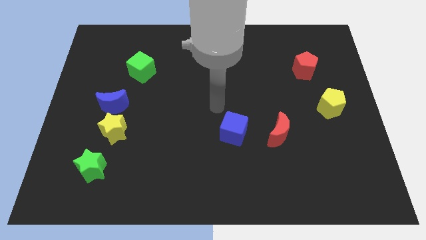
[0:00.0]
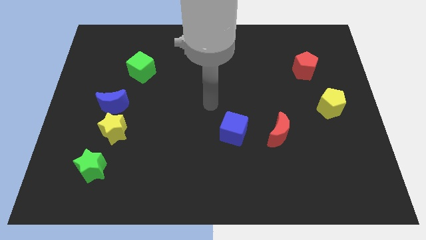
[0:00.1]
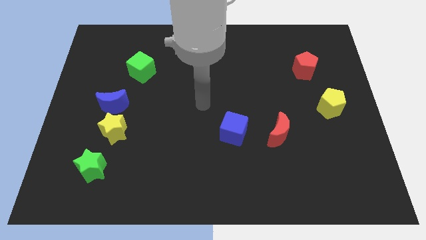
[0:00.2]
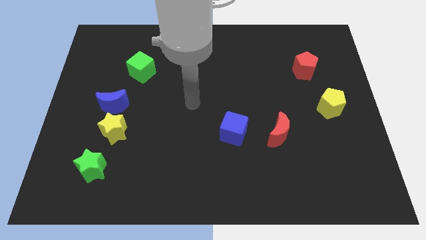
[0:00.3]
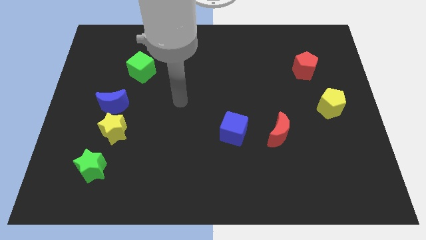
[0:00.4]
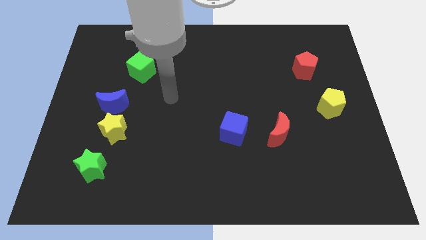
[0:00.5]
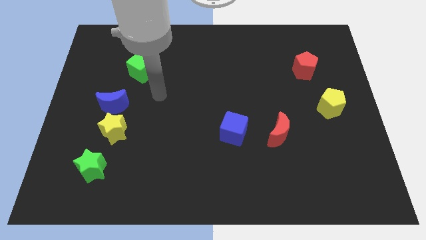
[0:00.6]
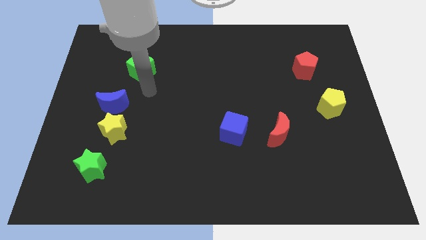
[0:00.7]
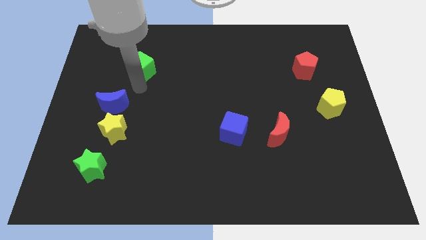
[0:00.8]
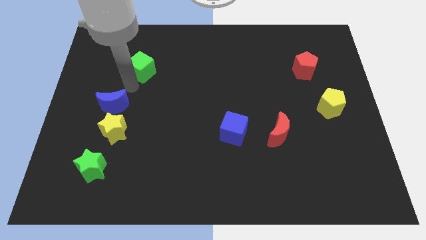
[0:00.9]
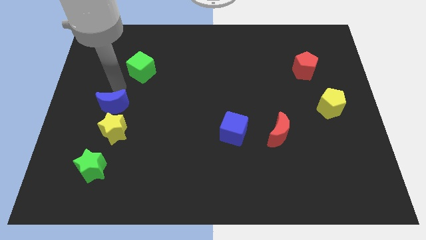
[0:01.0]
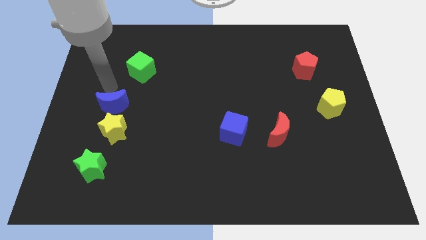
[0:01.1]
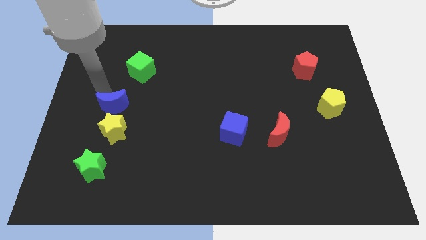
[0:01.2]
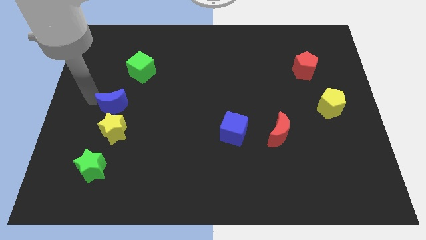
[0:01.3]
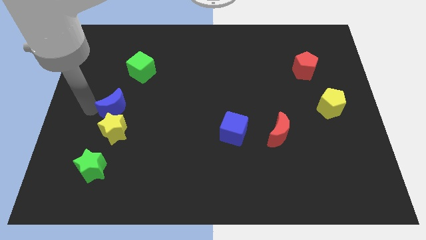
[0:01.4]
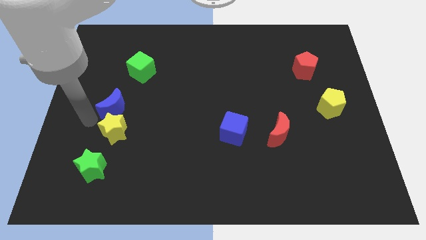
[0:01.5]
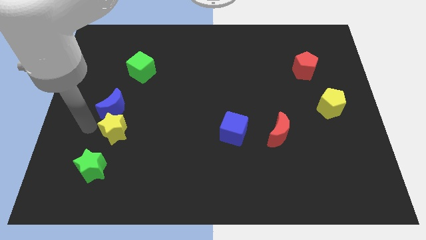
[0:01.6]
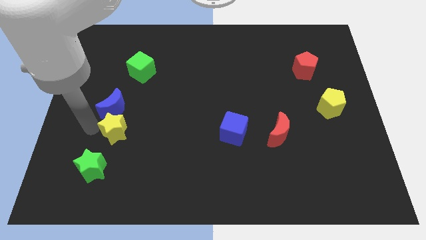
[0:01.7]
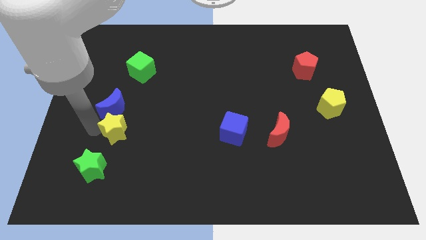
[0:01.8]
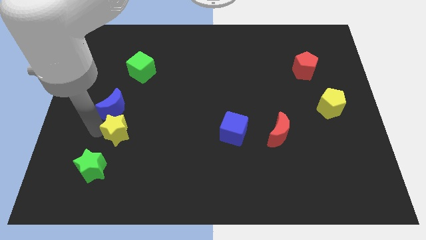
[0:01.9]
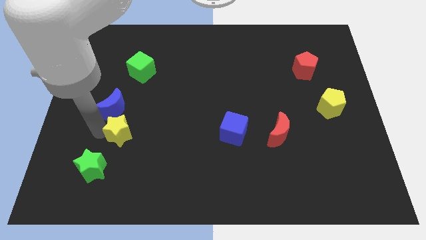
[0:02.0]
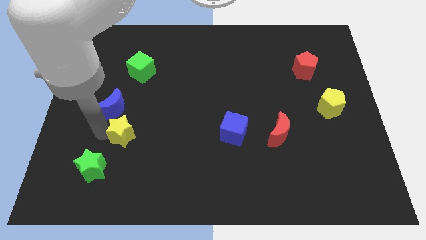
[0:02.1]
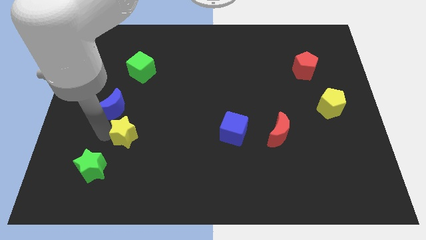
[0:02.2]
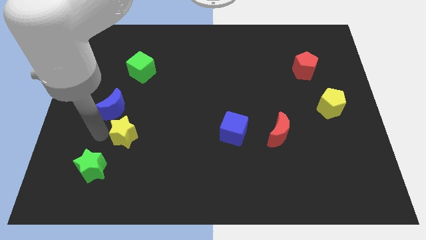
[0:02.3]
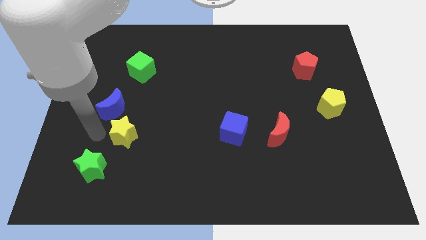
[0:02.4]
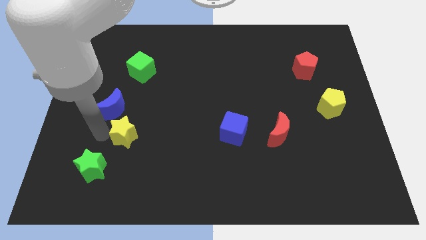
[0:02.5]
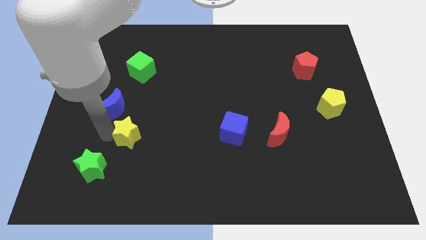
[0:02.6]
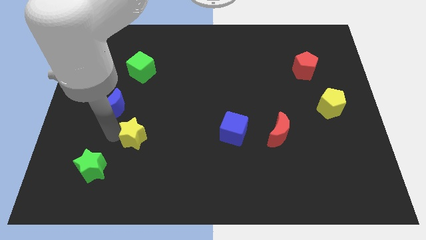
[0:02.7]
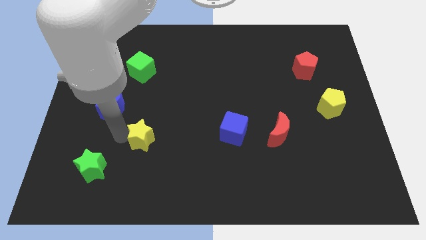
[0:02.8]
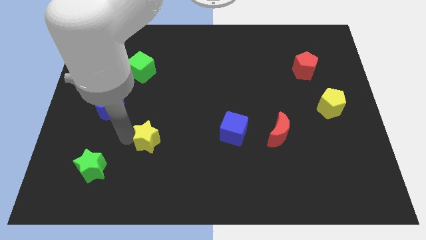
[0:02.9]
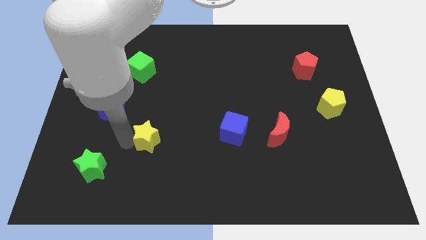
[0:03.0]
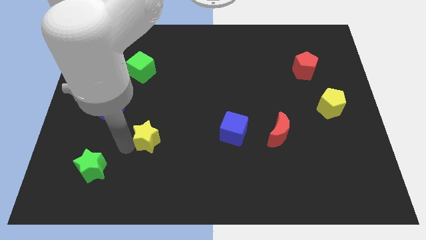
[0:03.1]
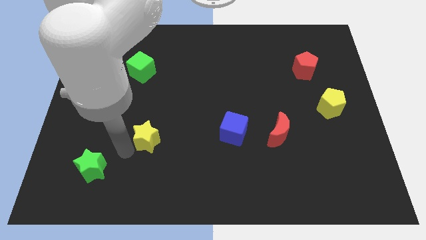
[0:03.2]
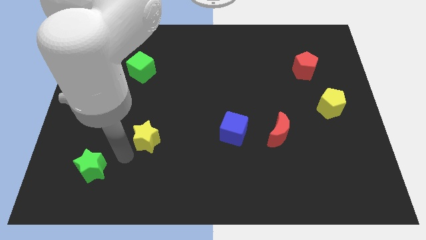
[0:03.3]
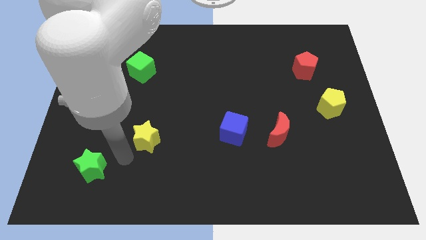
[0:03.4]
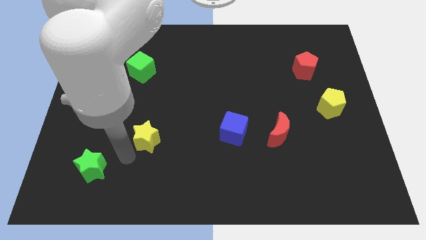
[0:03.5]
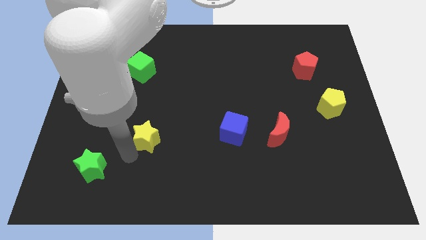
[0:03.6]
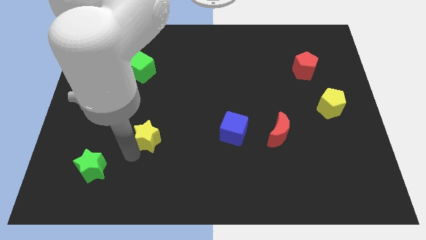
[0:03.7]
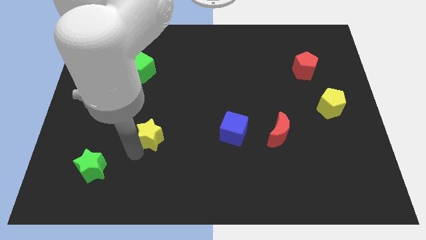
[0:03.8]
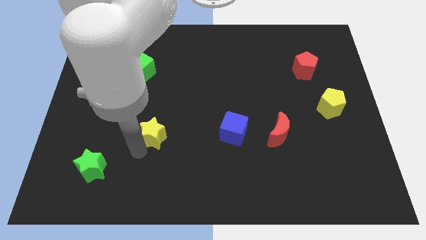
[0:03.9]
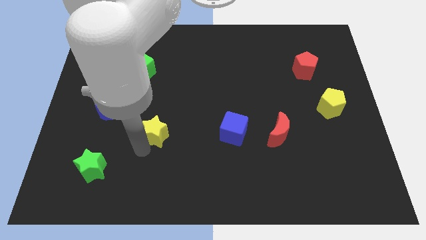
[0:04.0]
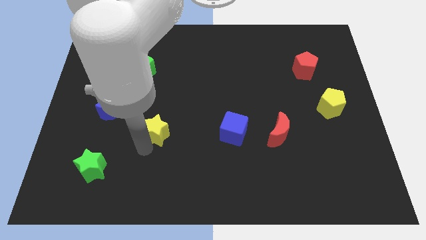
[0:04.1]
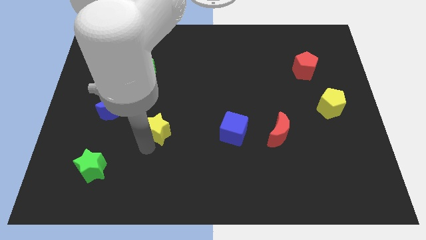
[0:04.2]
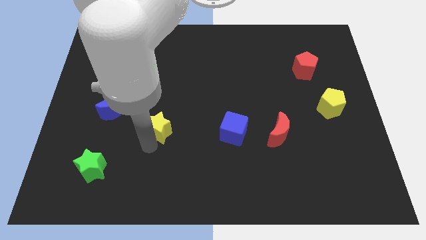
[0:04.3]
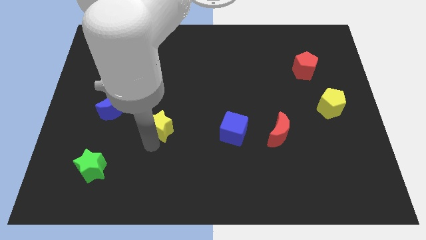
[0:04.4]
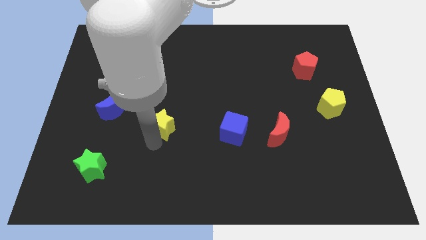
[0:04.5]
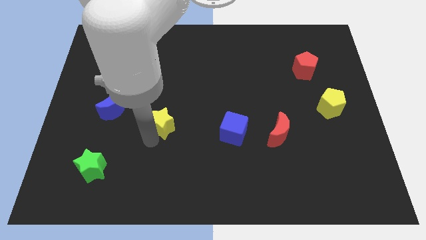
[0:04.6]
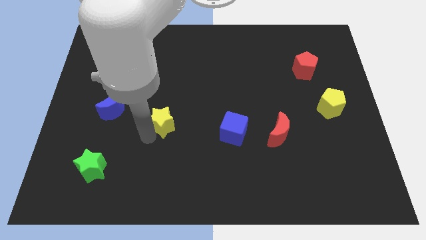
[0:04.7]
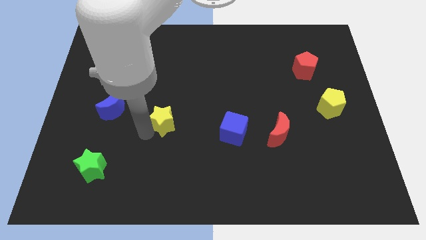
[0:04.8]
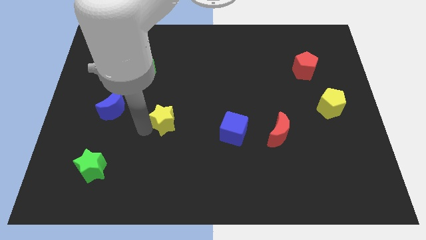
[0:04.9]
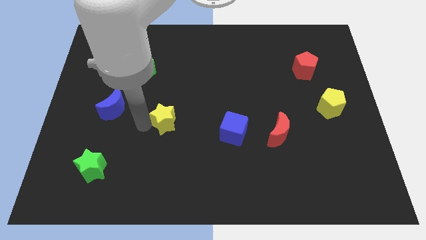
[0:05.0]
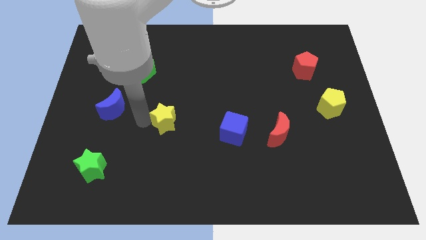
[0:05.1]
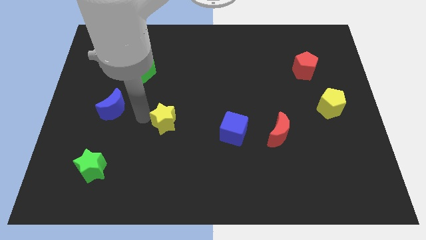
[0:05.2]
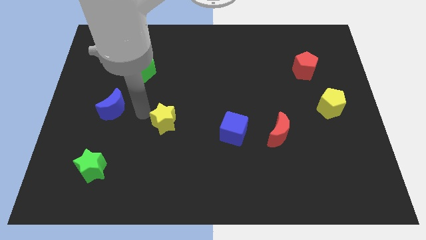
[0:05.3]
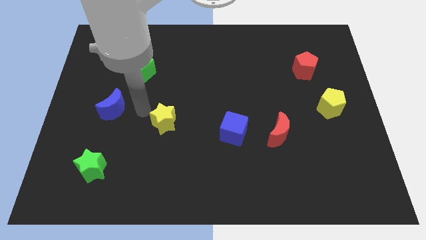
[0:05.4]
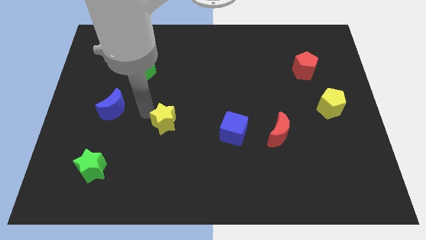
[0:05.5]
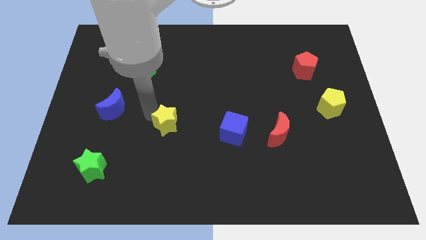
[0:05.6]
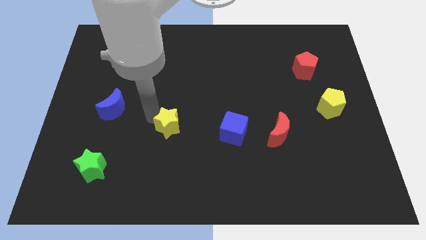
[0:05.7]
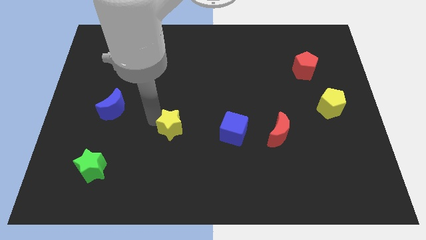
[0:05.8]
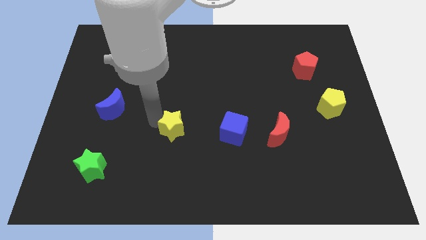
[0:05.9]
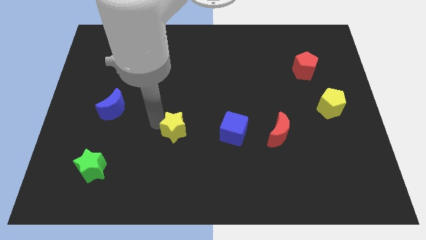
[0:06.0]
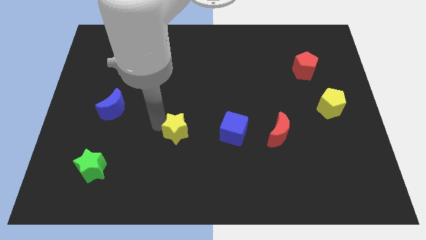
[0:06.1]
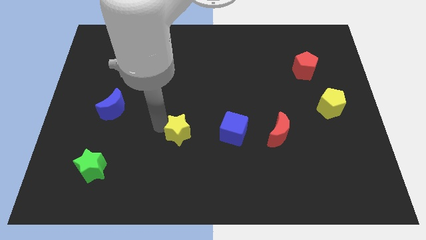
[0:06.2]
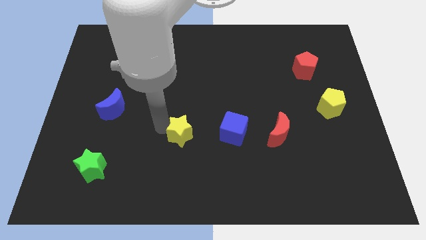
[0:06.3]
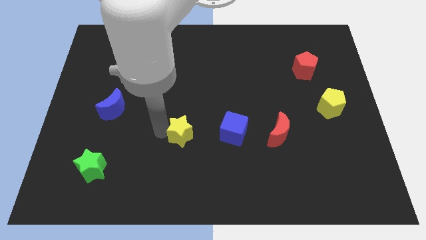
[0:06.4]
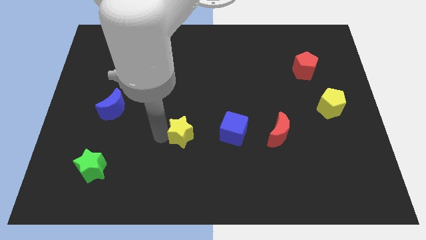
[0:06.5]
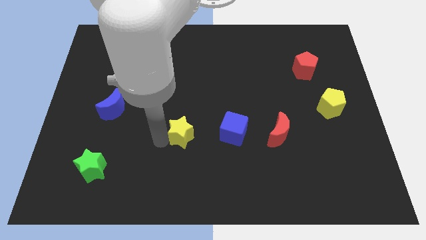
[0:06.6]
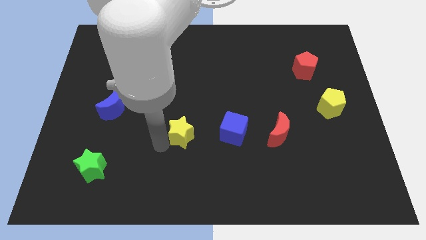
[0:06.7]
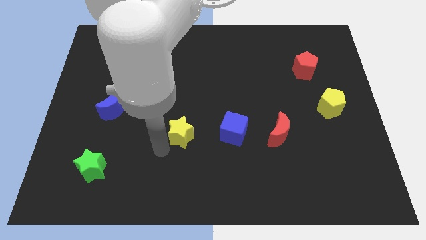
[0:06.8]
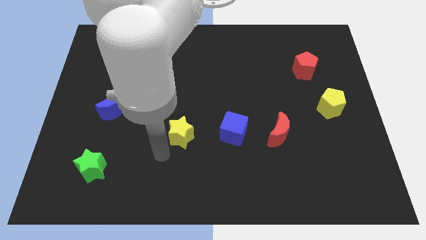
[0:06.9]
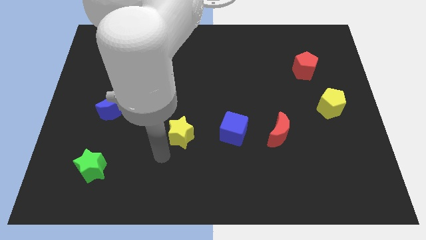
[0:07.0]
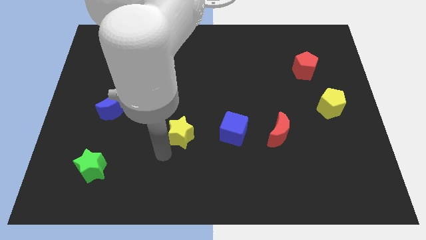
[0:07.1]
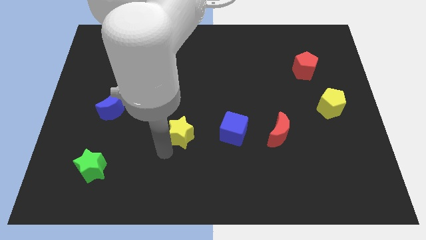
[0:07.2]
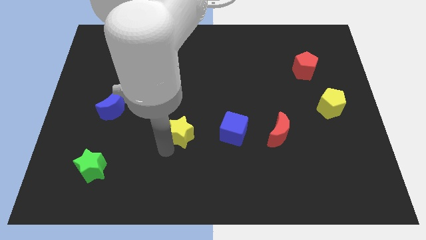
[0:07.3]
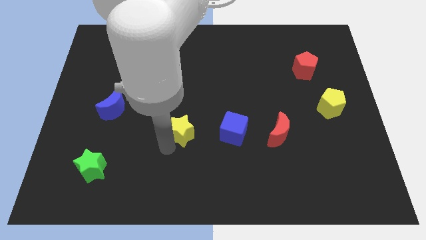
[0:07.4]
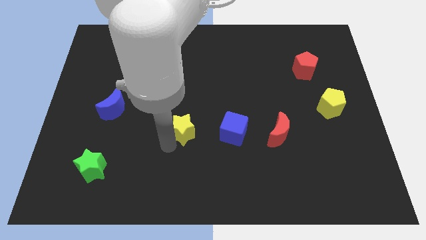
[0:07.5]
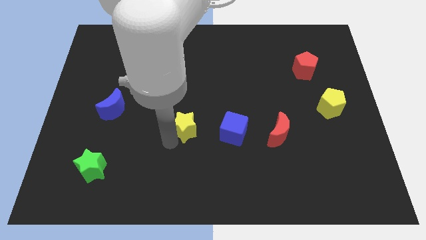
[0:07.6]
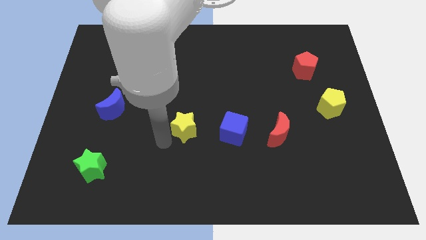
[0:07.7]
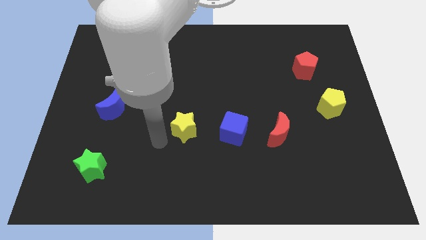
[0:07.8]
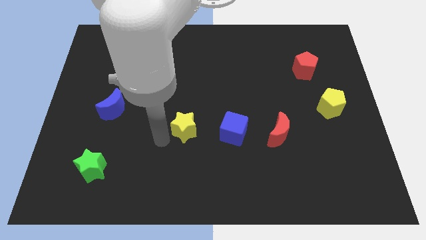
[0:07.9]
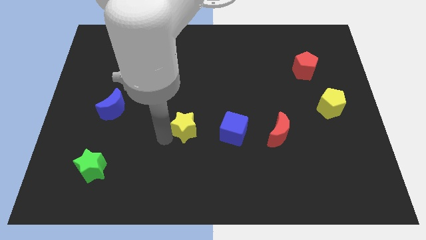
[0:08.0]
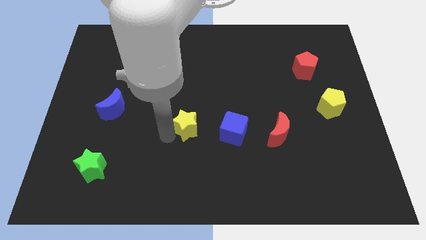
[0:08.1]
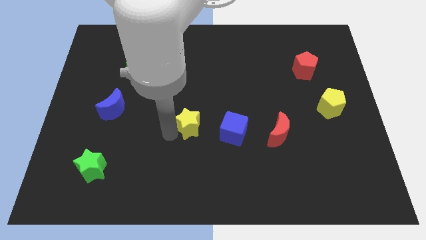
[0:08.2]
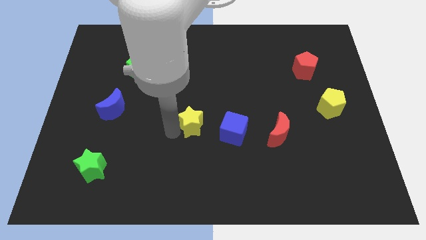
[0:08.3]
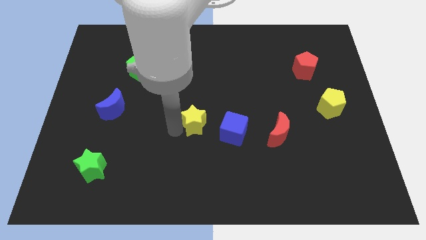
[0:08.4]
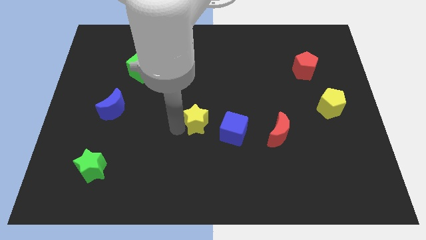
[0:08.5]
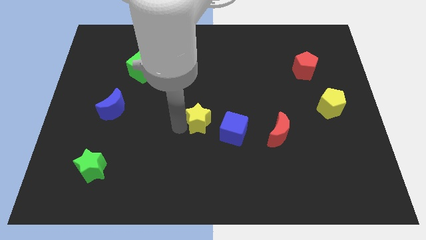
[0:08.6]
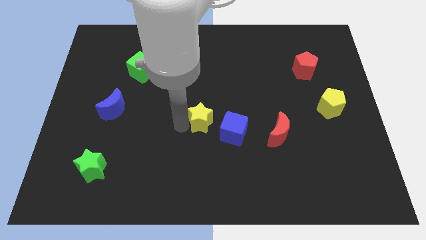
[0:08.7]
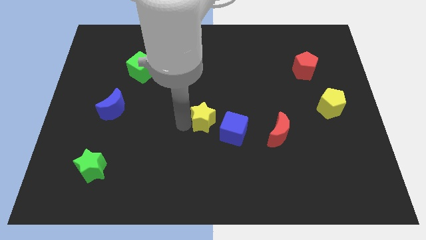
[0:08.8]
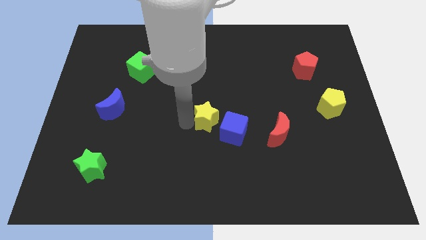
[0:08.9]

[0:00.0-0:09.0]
move the yellow star to the right
